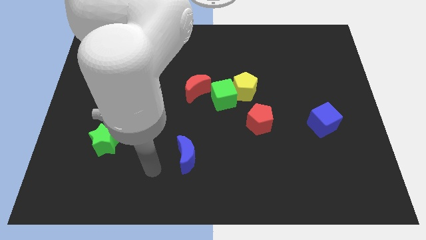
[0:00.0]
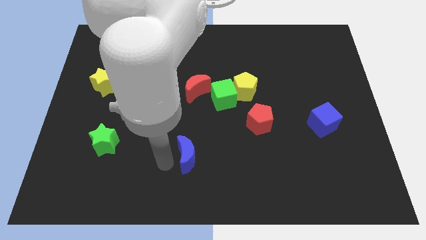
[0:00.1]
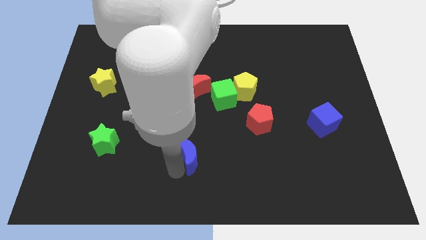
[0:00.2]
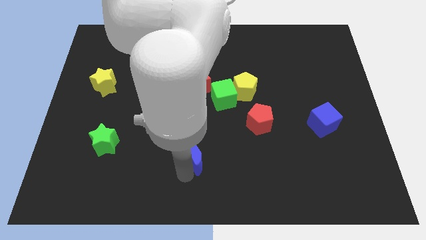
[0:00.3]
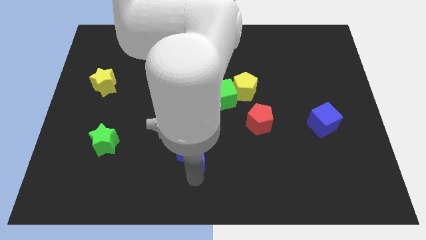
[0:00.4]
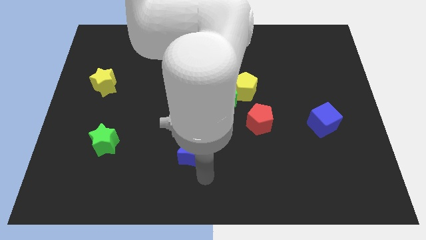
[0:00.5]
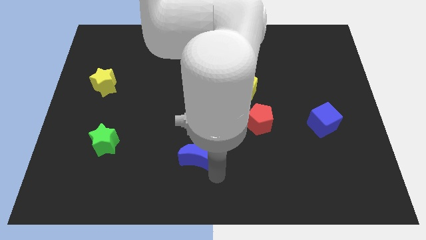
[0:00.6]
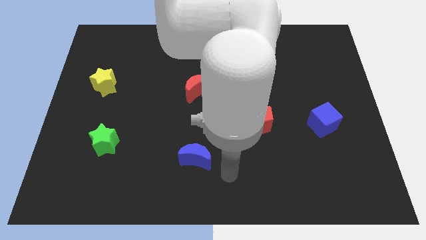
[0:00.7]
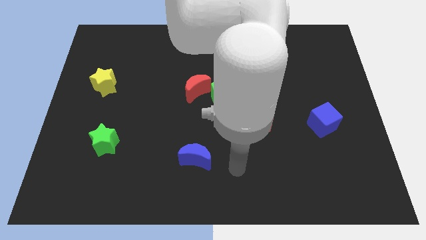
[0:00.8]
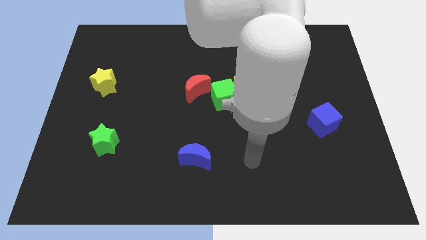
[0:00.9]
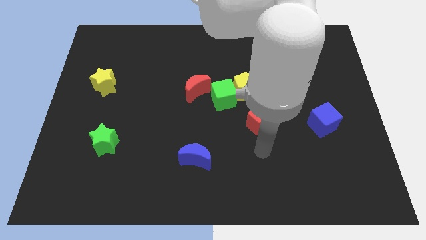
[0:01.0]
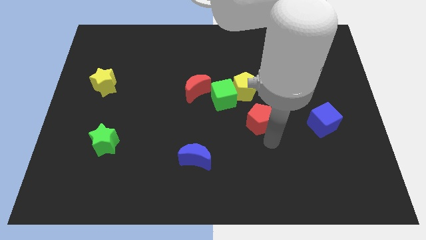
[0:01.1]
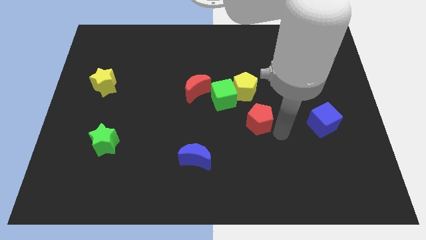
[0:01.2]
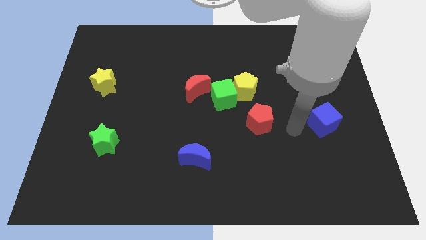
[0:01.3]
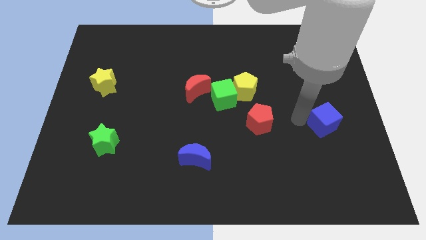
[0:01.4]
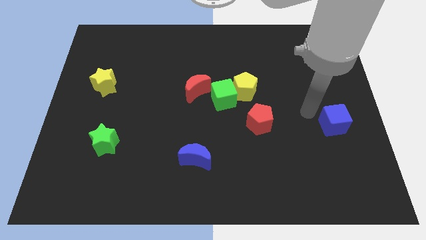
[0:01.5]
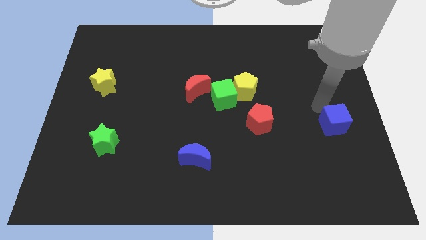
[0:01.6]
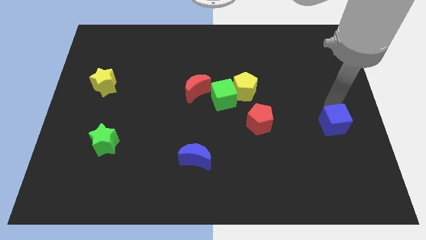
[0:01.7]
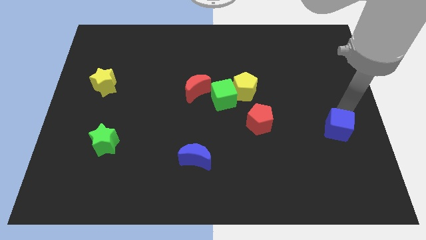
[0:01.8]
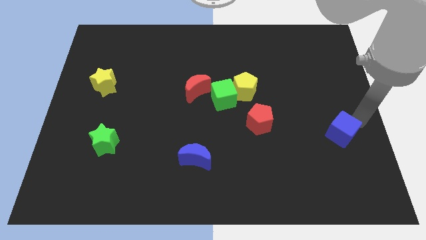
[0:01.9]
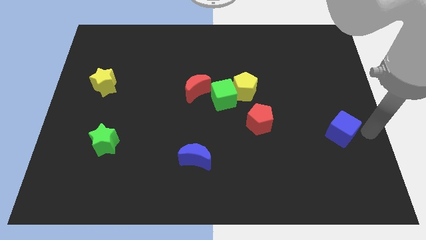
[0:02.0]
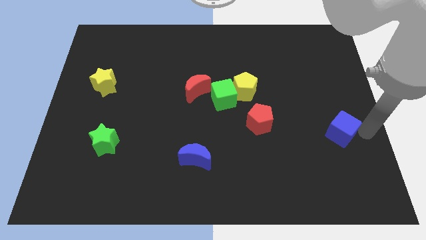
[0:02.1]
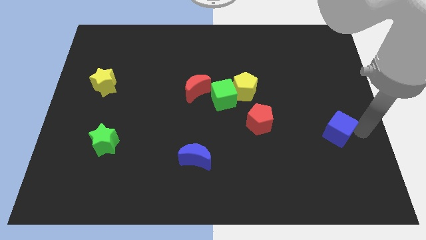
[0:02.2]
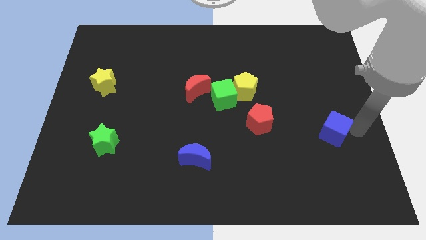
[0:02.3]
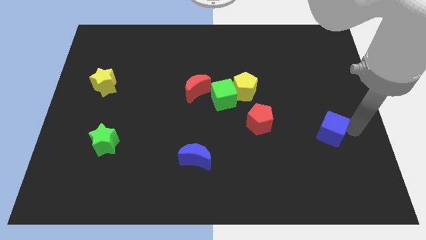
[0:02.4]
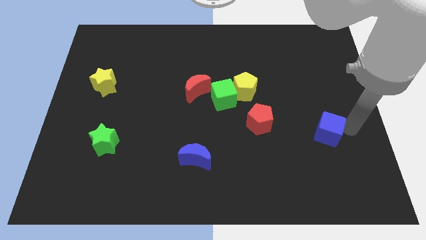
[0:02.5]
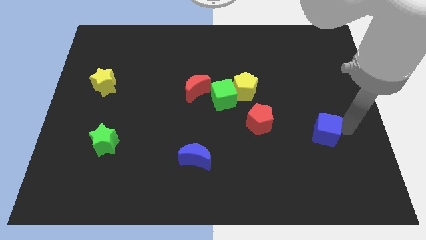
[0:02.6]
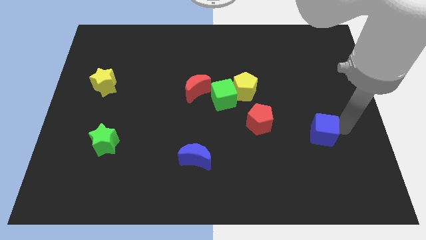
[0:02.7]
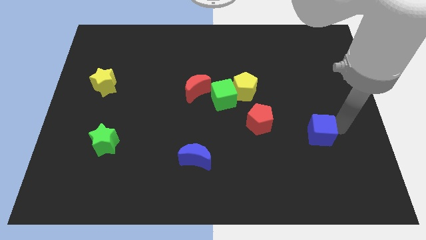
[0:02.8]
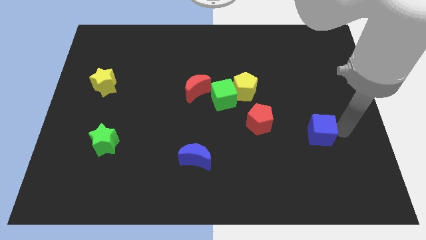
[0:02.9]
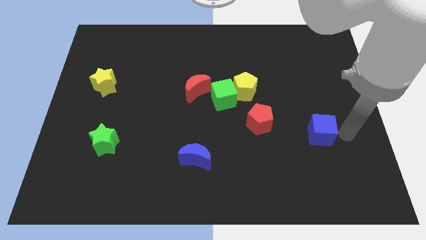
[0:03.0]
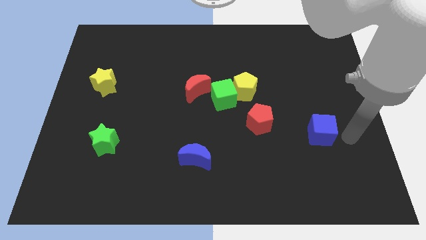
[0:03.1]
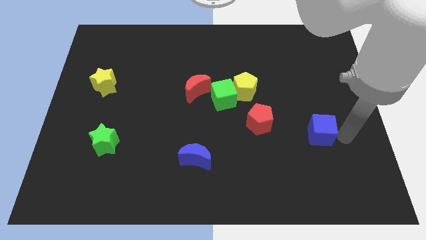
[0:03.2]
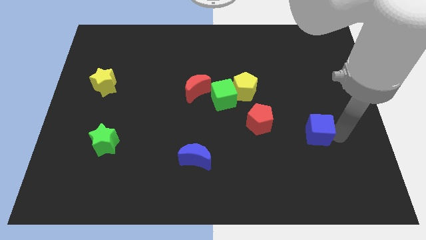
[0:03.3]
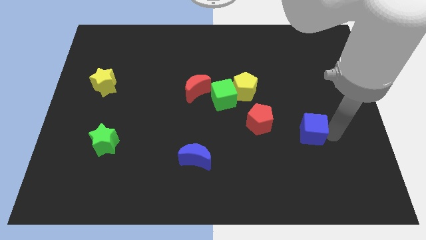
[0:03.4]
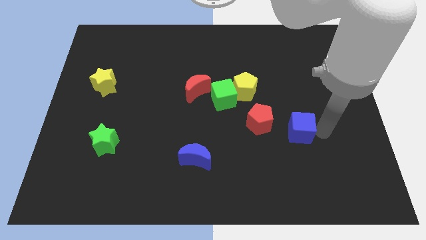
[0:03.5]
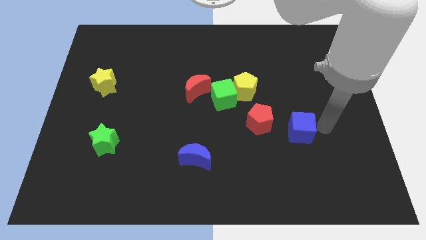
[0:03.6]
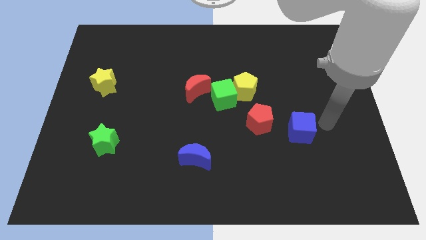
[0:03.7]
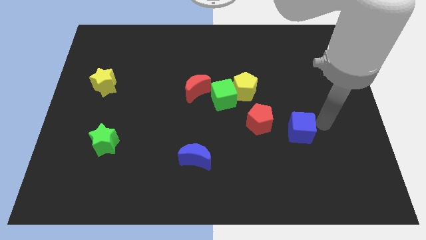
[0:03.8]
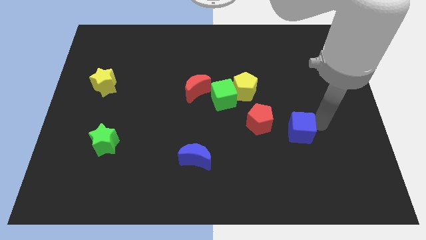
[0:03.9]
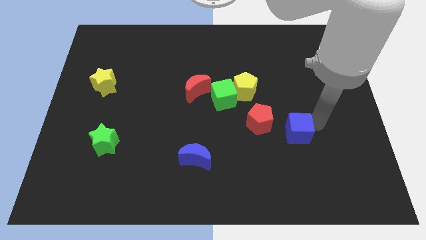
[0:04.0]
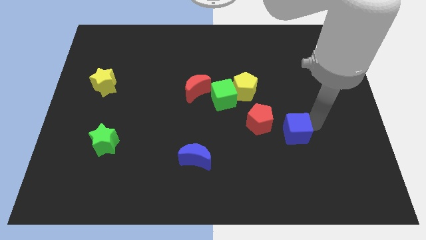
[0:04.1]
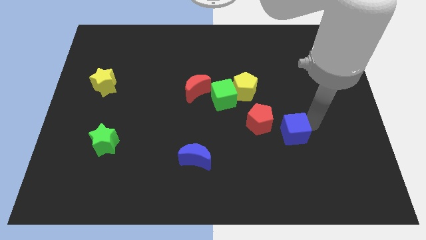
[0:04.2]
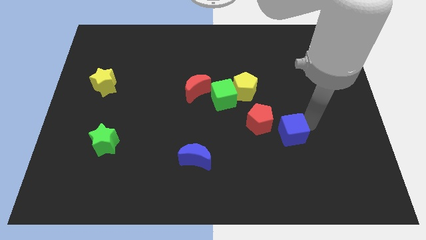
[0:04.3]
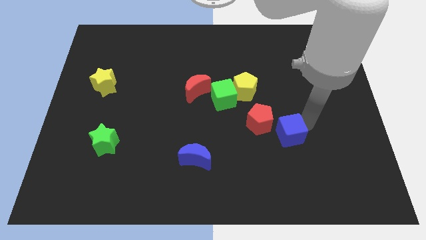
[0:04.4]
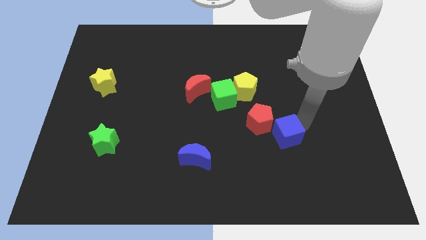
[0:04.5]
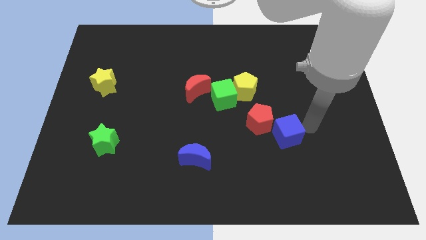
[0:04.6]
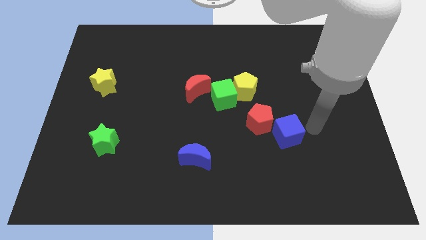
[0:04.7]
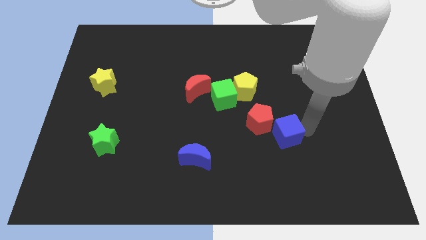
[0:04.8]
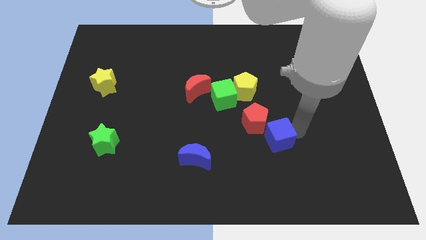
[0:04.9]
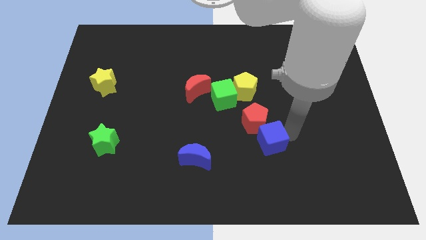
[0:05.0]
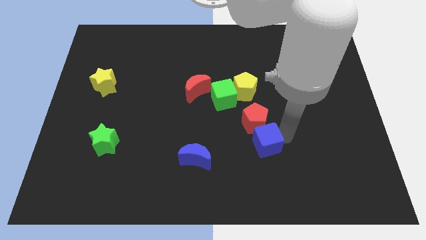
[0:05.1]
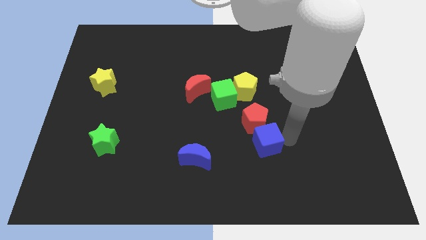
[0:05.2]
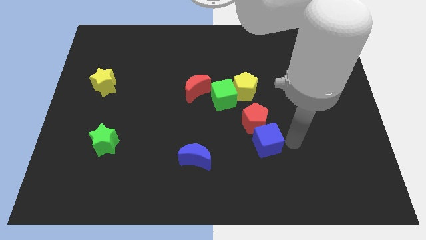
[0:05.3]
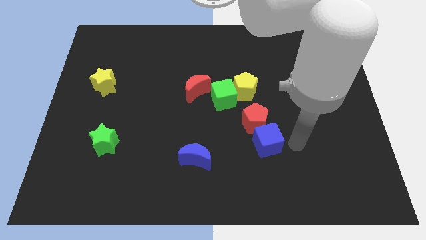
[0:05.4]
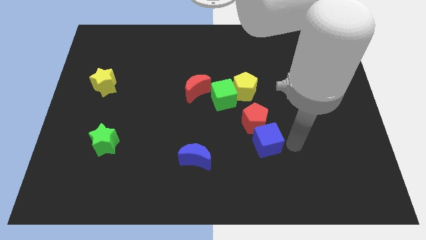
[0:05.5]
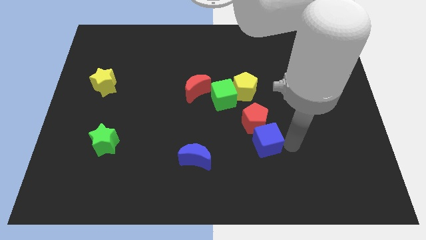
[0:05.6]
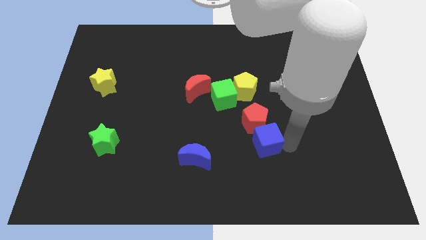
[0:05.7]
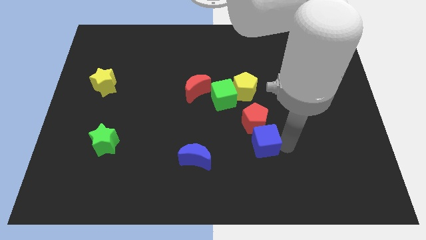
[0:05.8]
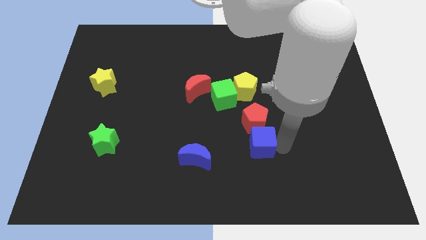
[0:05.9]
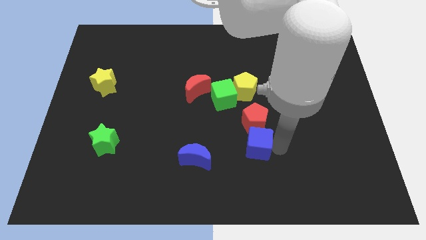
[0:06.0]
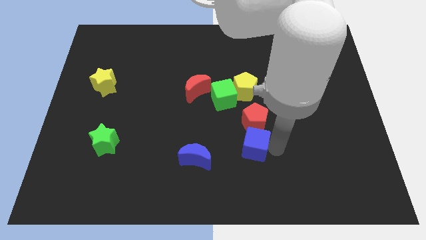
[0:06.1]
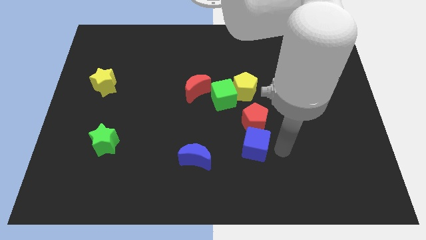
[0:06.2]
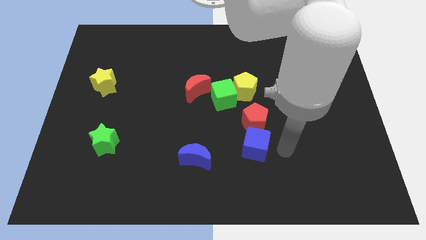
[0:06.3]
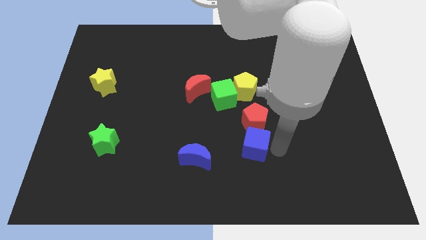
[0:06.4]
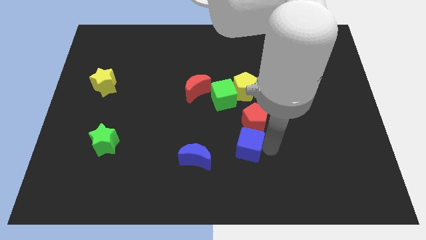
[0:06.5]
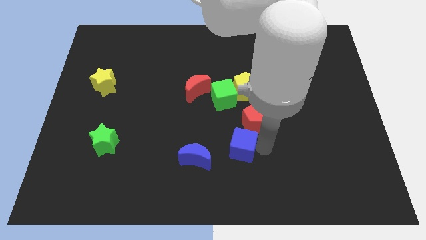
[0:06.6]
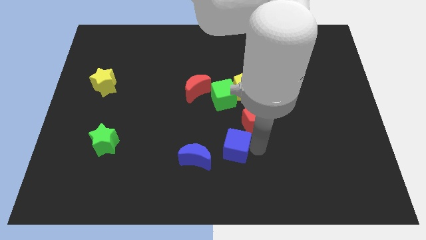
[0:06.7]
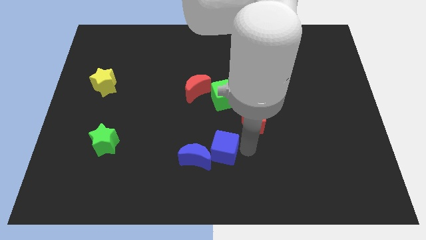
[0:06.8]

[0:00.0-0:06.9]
push the blue cube to the left

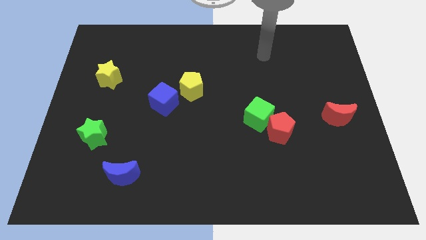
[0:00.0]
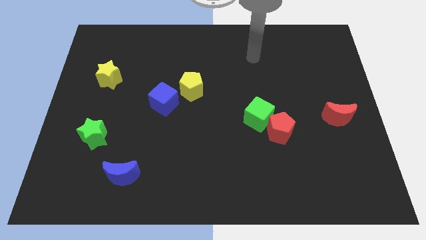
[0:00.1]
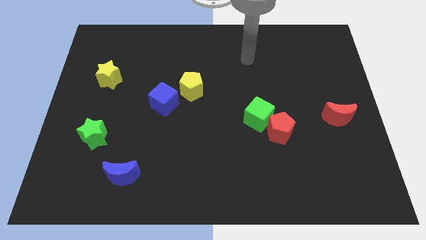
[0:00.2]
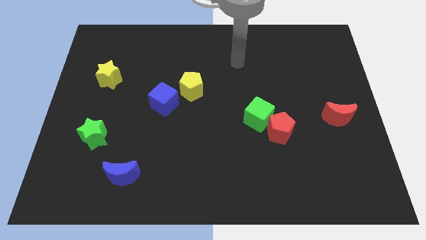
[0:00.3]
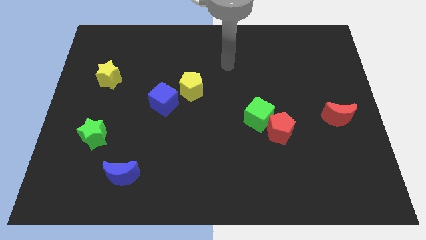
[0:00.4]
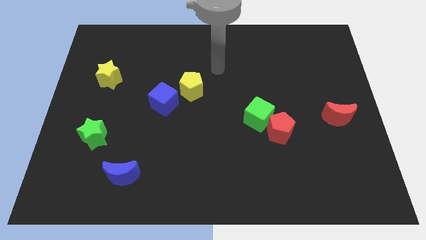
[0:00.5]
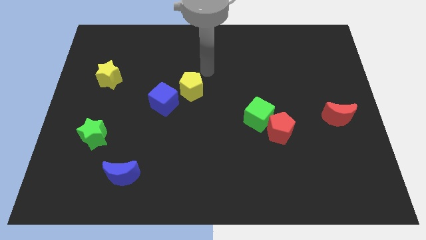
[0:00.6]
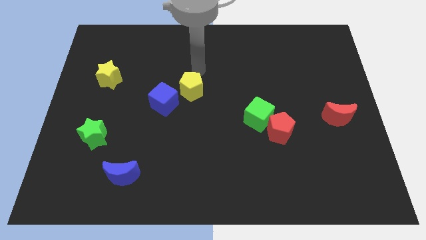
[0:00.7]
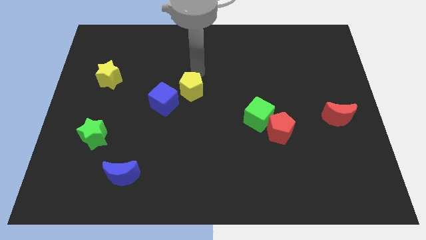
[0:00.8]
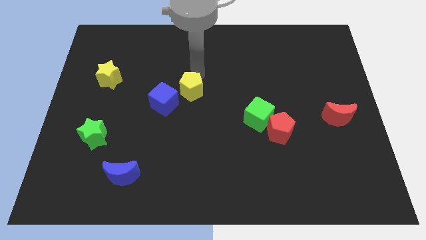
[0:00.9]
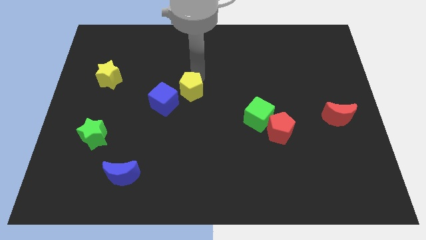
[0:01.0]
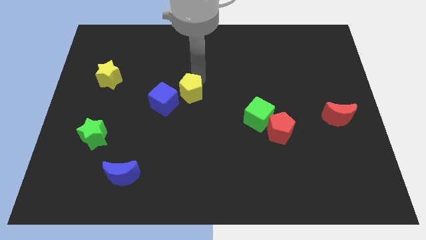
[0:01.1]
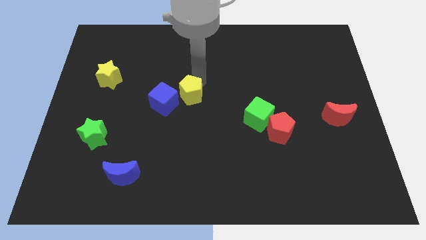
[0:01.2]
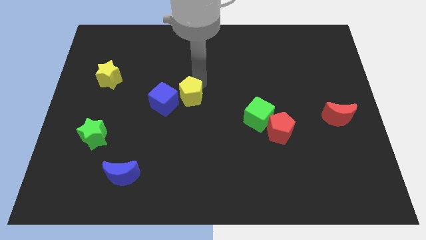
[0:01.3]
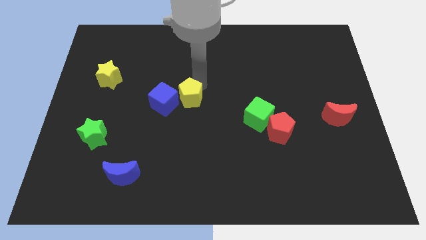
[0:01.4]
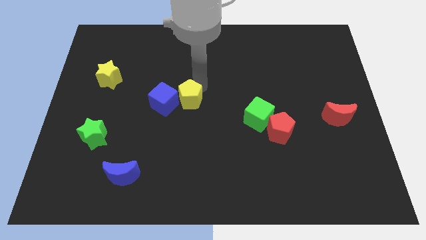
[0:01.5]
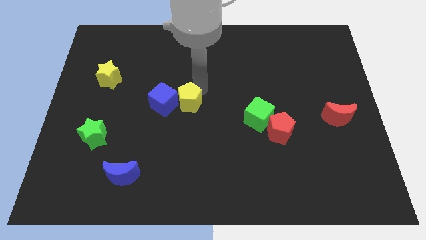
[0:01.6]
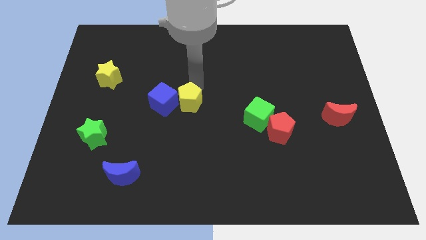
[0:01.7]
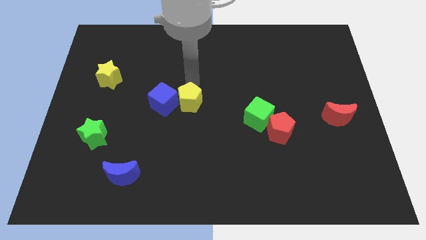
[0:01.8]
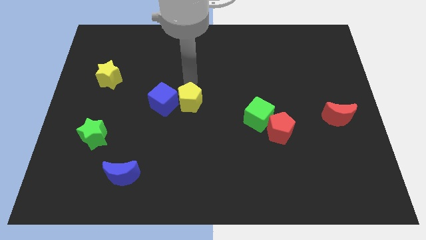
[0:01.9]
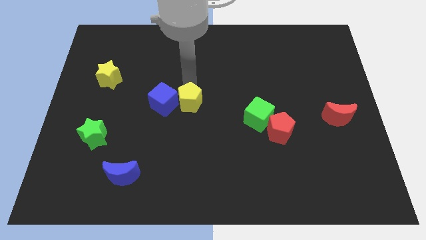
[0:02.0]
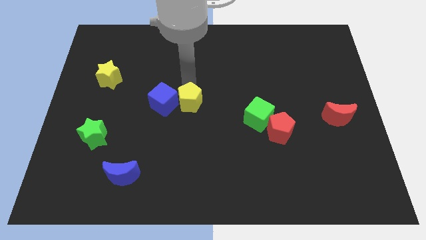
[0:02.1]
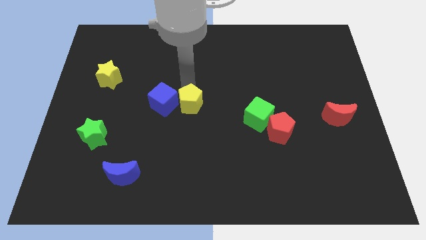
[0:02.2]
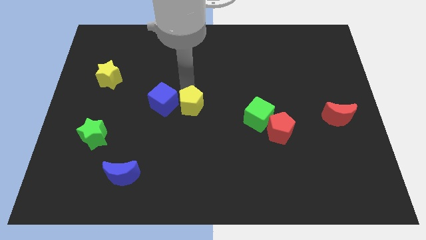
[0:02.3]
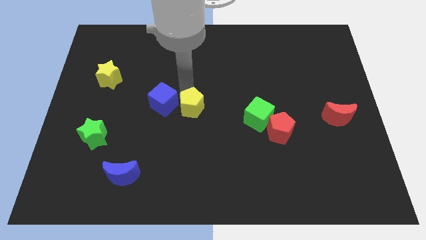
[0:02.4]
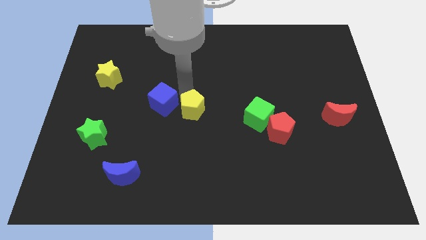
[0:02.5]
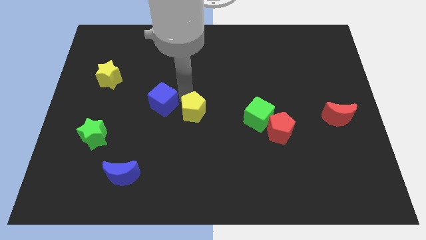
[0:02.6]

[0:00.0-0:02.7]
slide the yellow pentagon downwards somewhat
